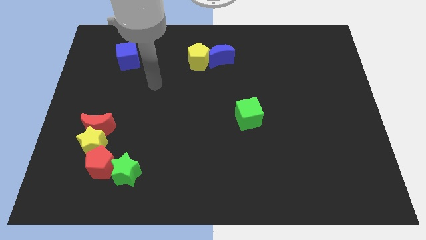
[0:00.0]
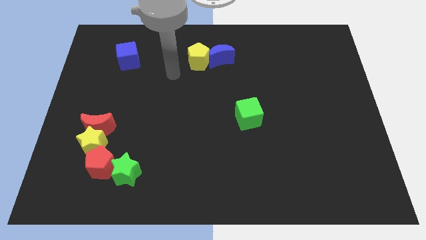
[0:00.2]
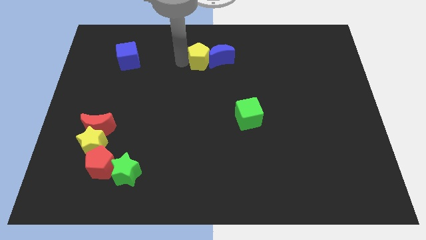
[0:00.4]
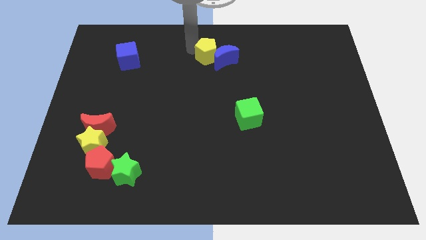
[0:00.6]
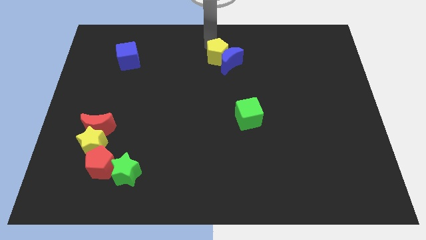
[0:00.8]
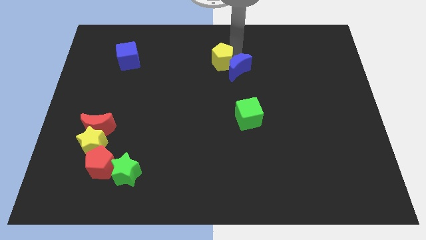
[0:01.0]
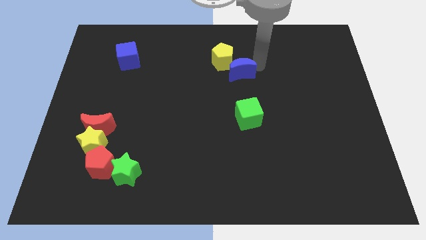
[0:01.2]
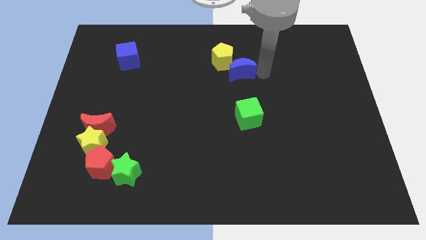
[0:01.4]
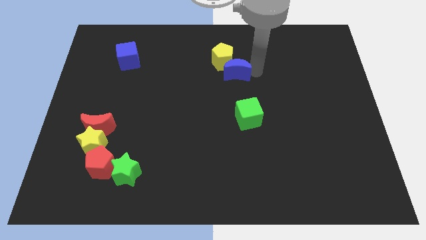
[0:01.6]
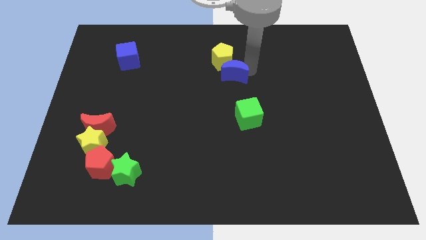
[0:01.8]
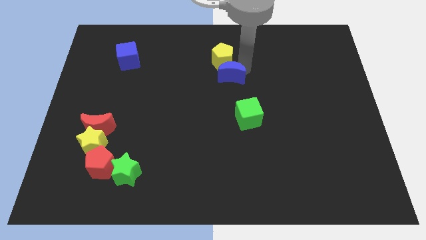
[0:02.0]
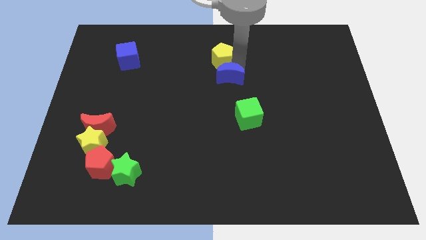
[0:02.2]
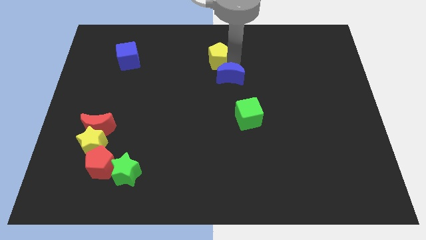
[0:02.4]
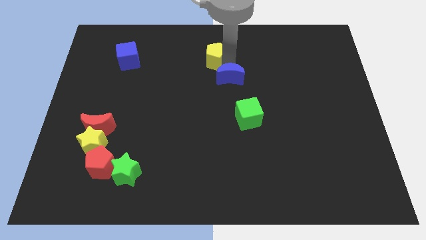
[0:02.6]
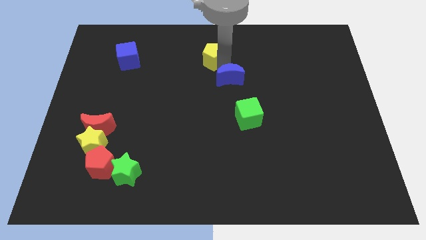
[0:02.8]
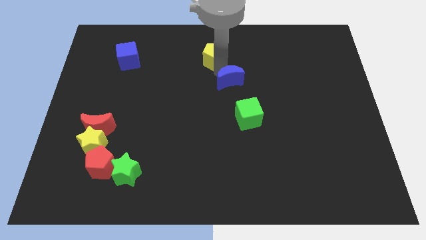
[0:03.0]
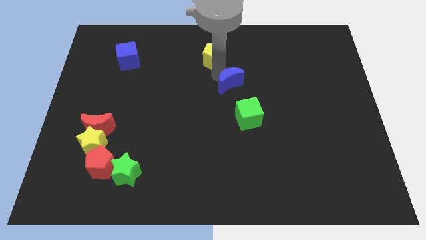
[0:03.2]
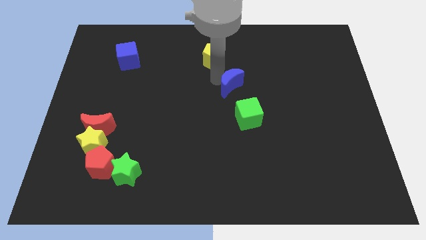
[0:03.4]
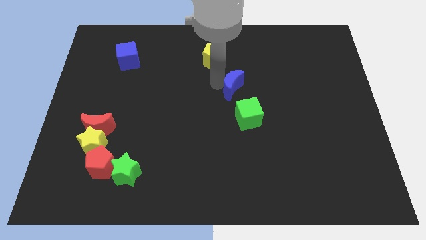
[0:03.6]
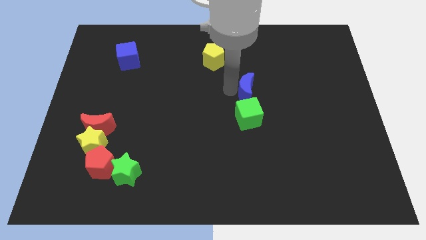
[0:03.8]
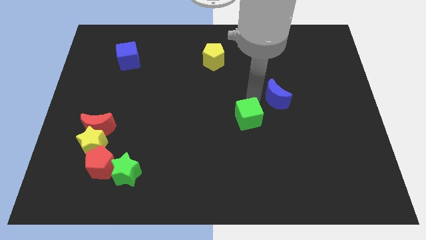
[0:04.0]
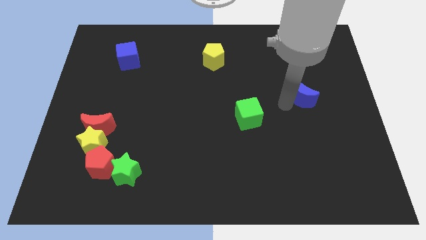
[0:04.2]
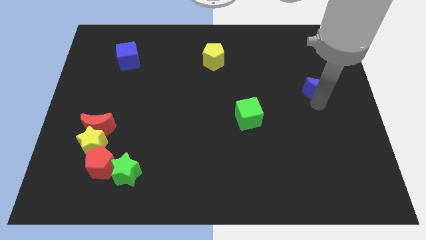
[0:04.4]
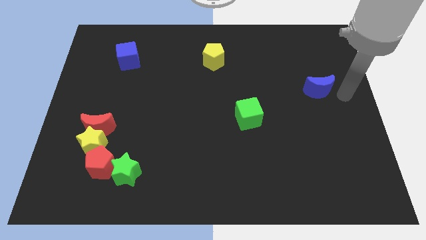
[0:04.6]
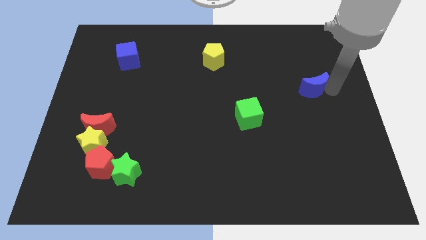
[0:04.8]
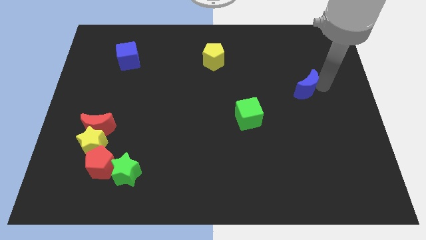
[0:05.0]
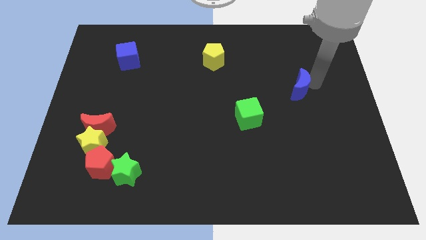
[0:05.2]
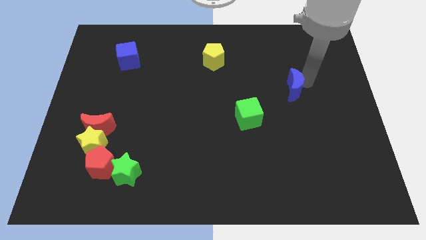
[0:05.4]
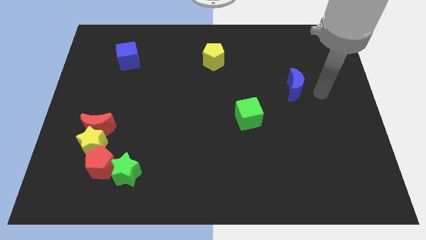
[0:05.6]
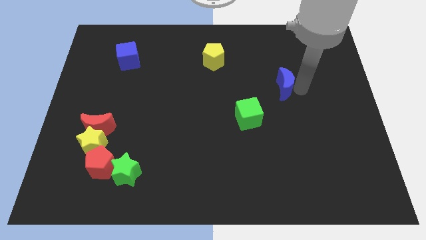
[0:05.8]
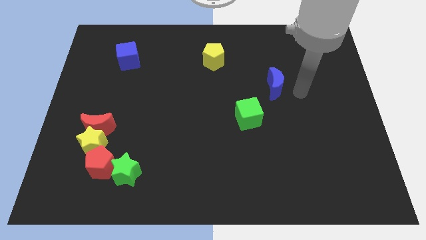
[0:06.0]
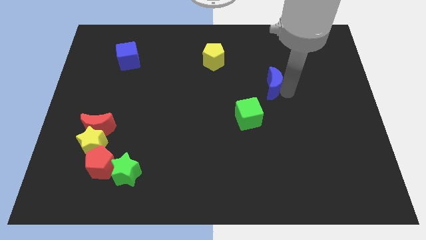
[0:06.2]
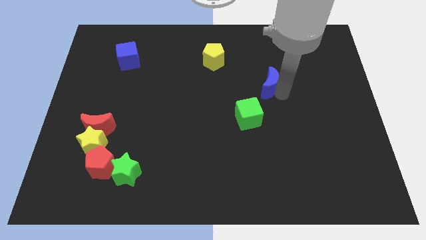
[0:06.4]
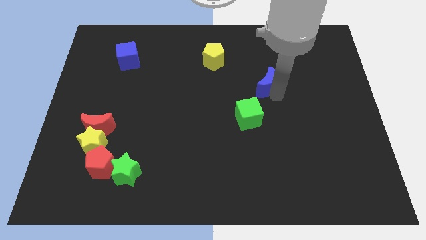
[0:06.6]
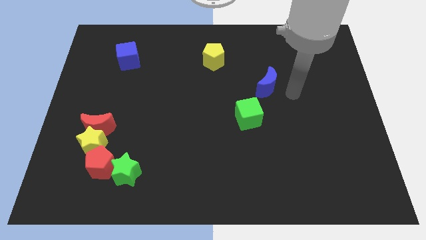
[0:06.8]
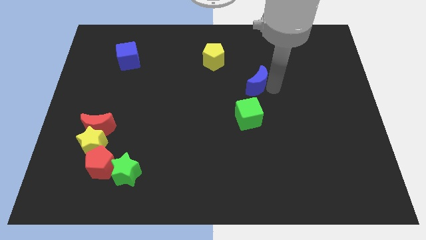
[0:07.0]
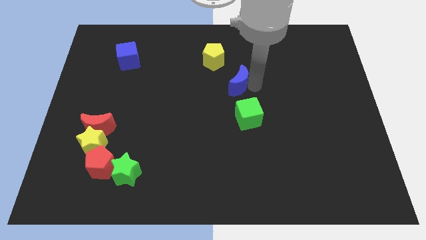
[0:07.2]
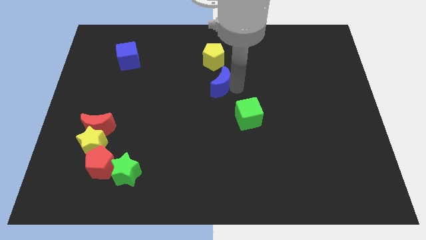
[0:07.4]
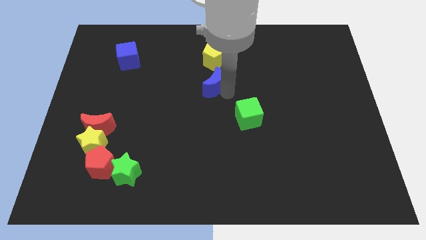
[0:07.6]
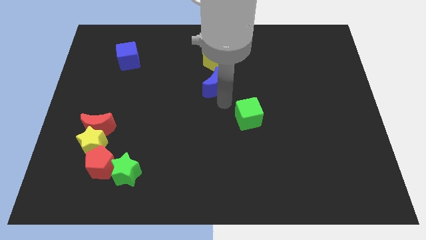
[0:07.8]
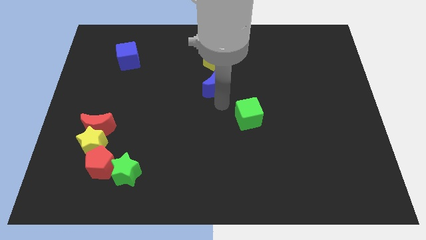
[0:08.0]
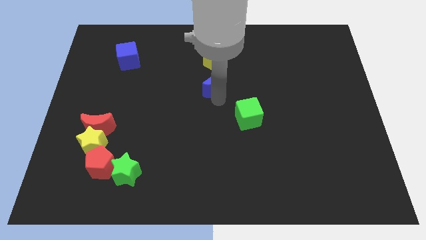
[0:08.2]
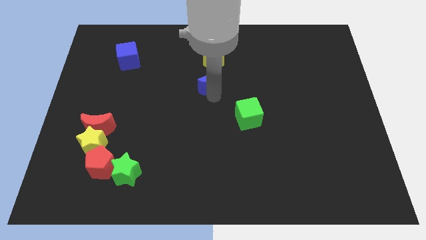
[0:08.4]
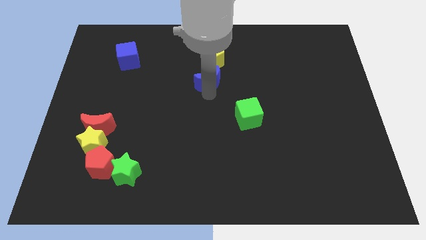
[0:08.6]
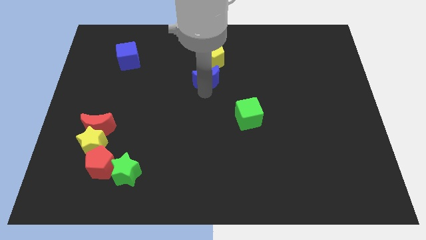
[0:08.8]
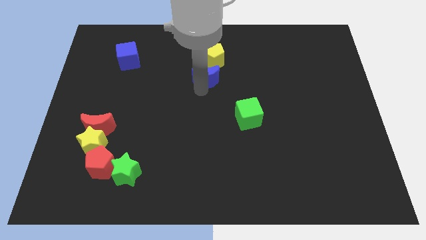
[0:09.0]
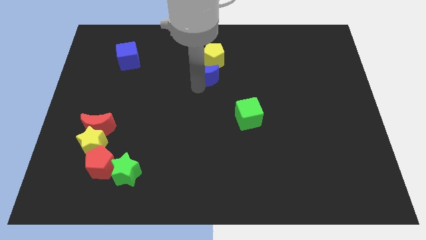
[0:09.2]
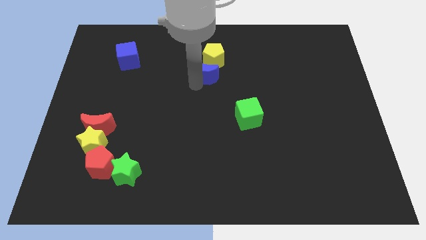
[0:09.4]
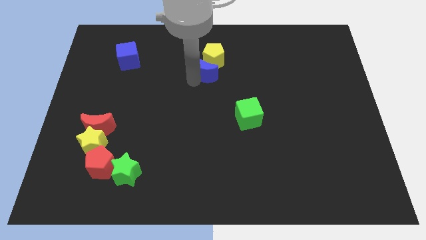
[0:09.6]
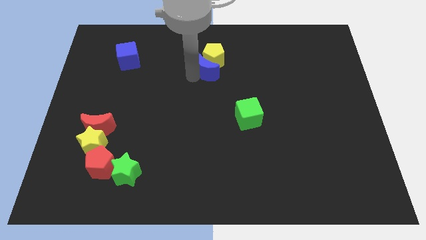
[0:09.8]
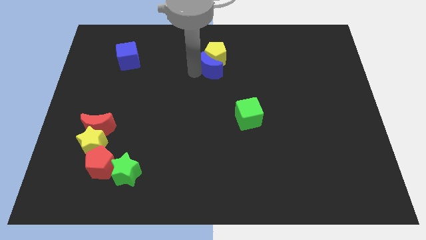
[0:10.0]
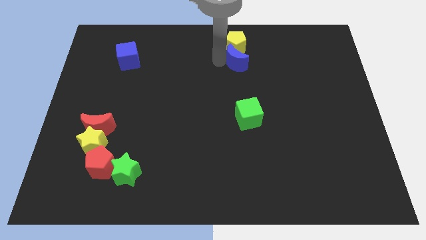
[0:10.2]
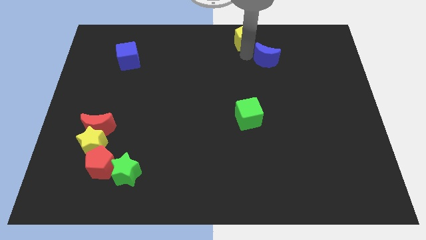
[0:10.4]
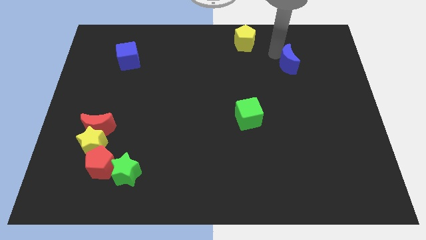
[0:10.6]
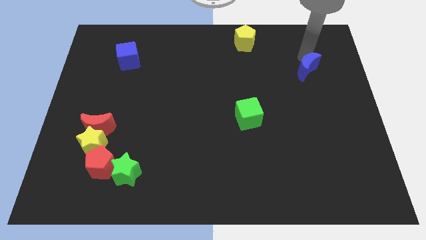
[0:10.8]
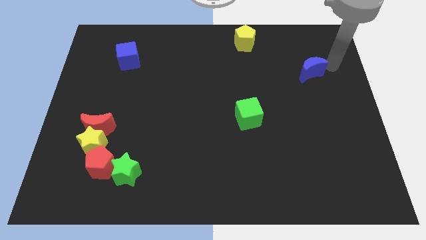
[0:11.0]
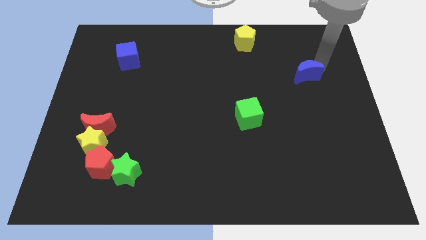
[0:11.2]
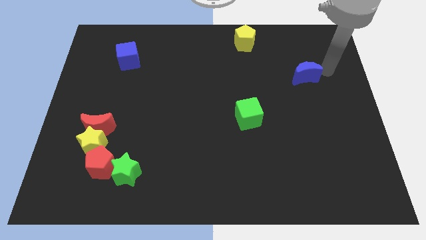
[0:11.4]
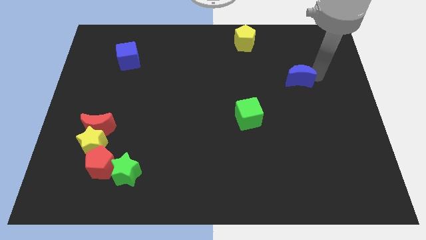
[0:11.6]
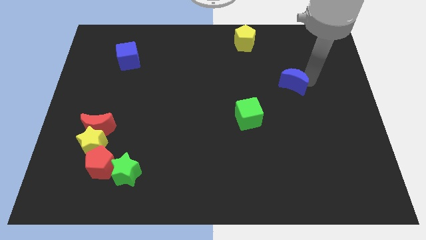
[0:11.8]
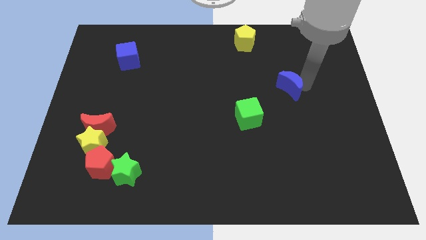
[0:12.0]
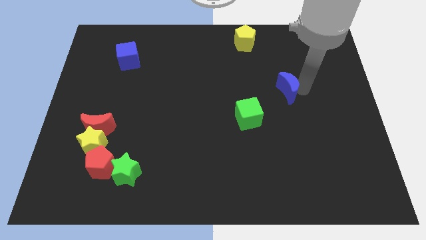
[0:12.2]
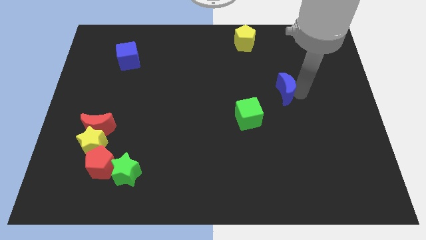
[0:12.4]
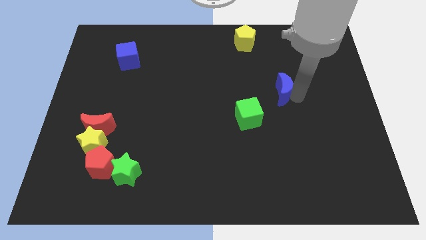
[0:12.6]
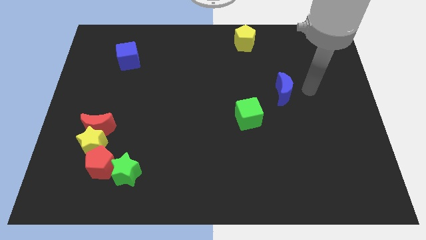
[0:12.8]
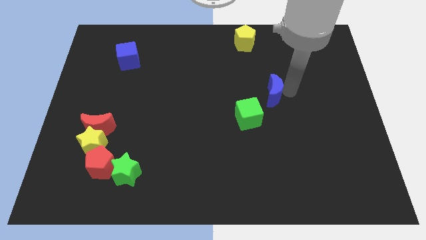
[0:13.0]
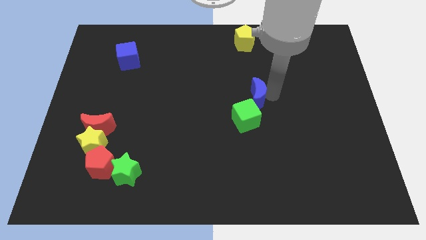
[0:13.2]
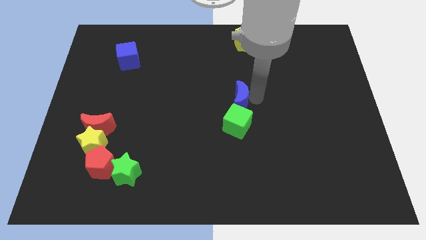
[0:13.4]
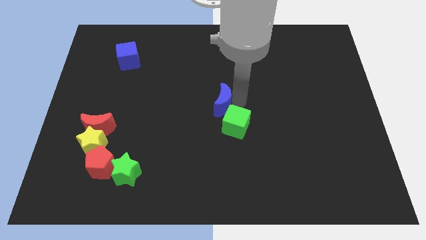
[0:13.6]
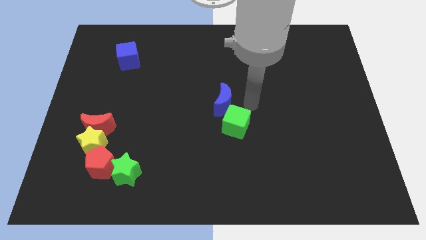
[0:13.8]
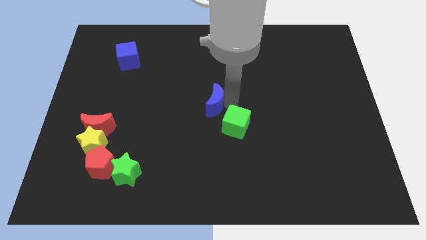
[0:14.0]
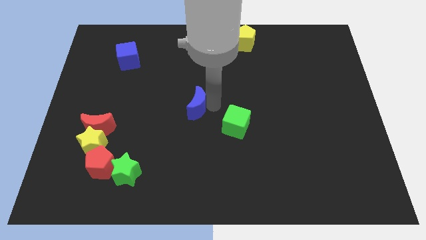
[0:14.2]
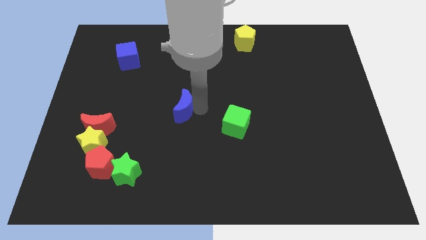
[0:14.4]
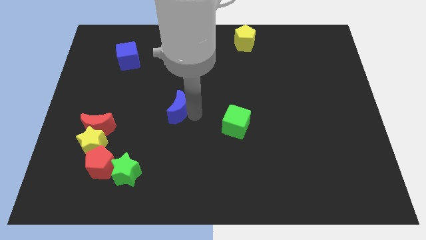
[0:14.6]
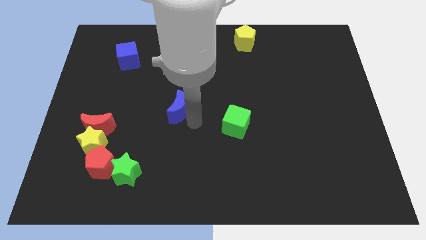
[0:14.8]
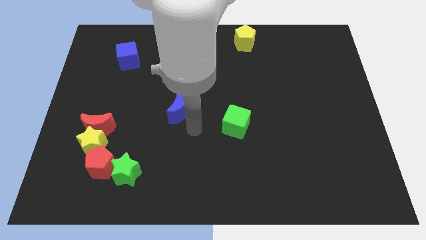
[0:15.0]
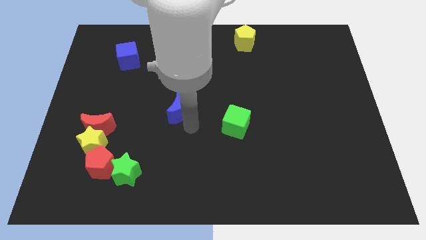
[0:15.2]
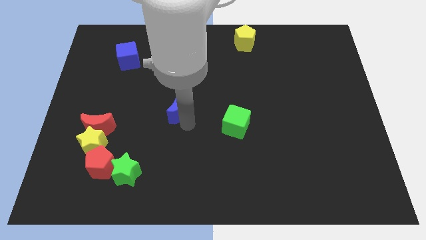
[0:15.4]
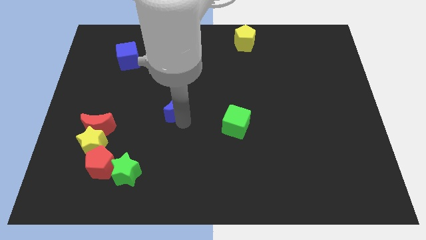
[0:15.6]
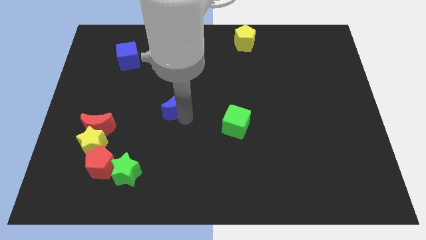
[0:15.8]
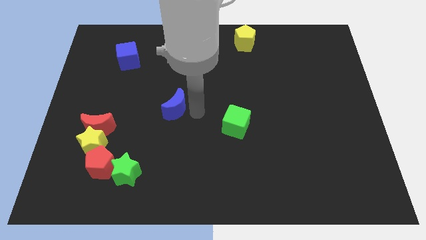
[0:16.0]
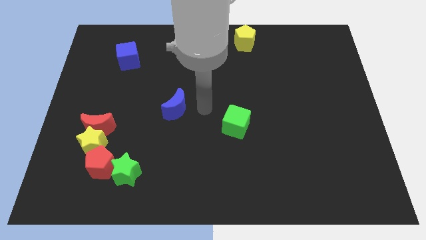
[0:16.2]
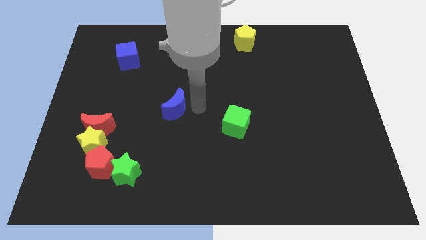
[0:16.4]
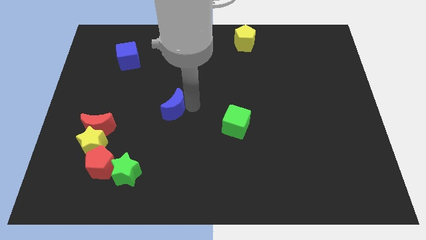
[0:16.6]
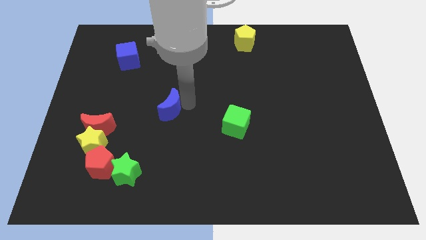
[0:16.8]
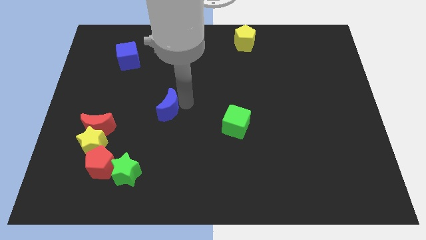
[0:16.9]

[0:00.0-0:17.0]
push the blue moon downwards and left
